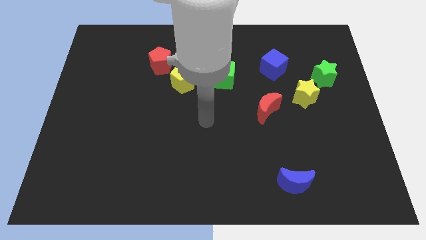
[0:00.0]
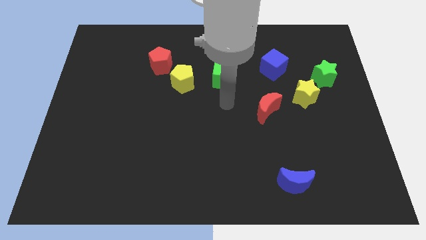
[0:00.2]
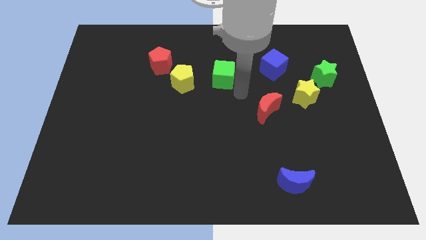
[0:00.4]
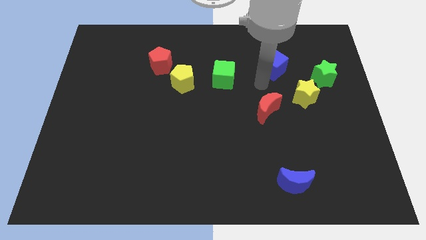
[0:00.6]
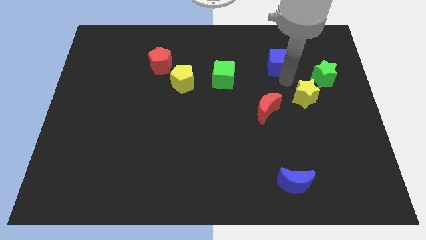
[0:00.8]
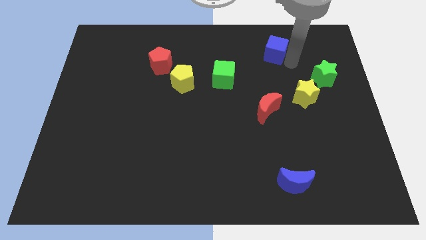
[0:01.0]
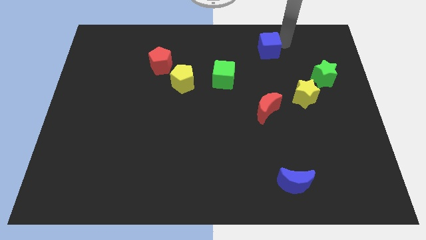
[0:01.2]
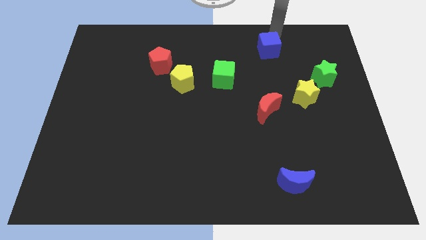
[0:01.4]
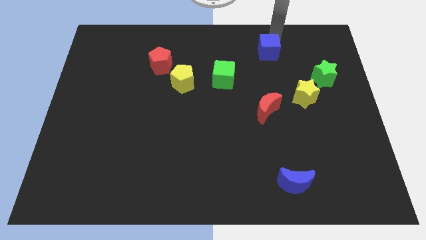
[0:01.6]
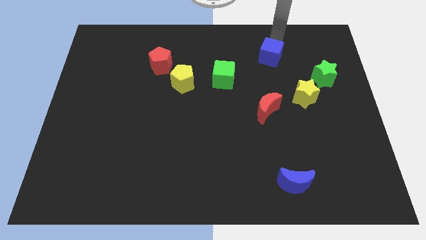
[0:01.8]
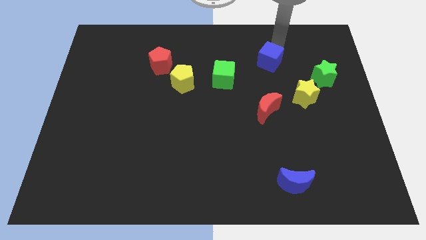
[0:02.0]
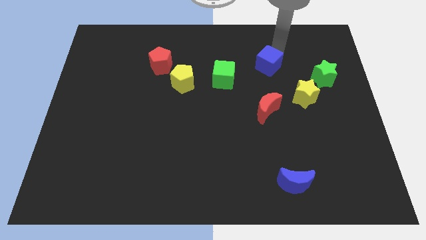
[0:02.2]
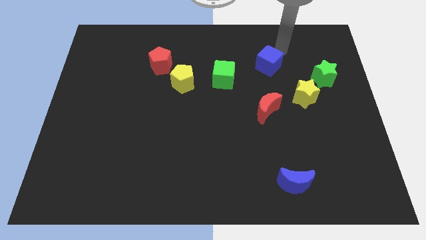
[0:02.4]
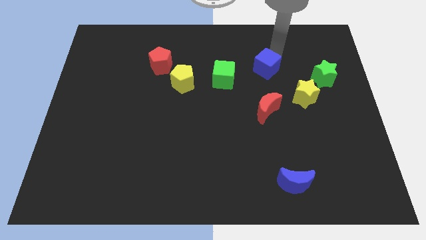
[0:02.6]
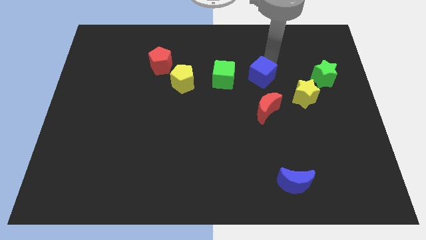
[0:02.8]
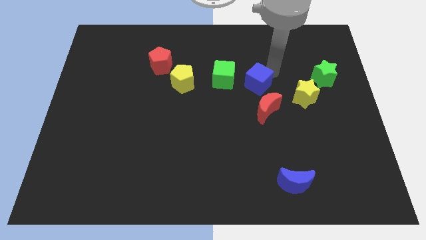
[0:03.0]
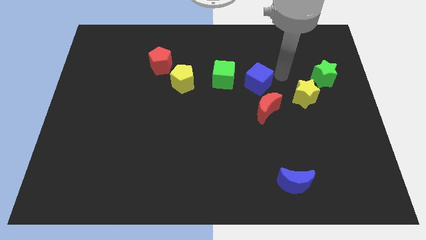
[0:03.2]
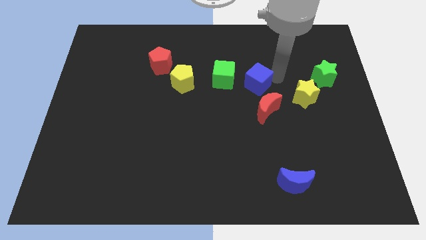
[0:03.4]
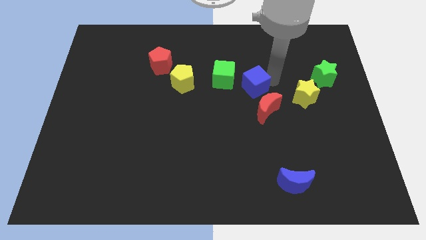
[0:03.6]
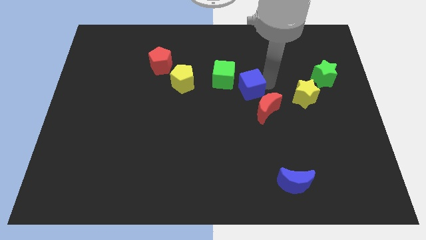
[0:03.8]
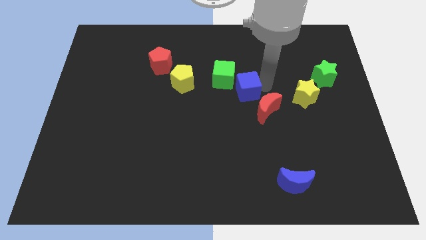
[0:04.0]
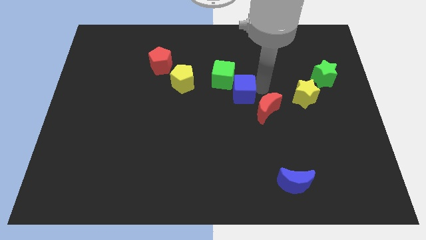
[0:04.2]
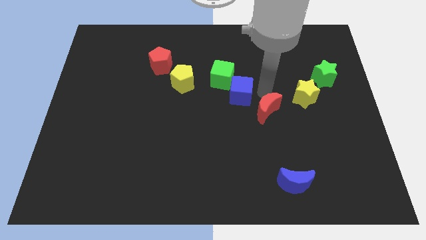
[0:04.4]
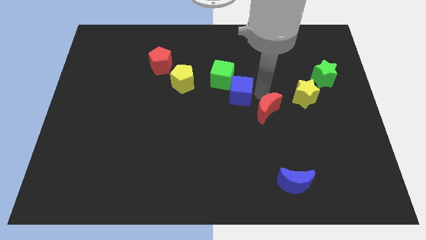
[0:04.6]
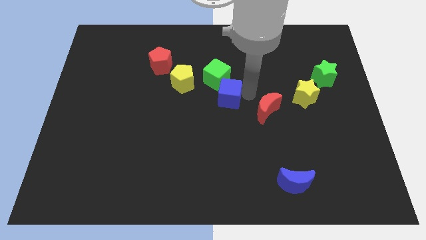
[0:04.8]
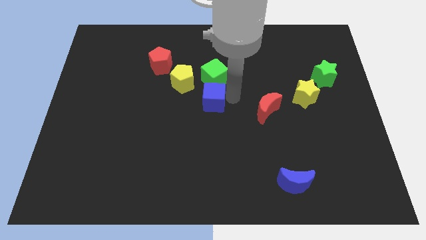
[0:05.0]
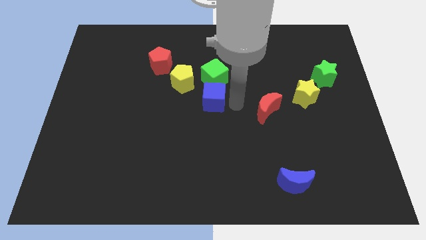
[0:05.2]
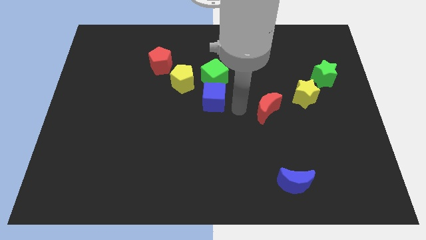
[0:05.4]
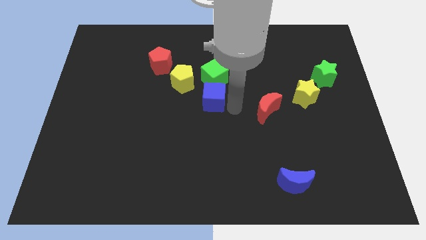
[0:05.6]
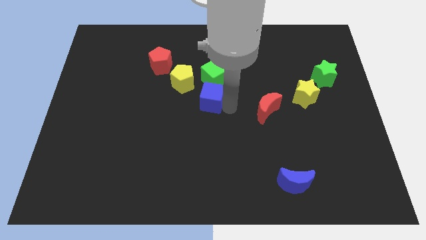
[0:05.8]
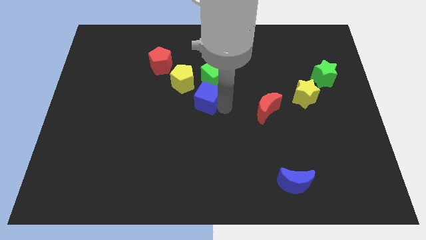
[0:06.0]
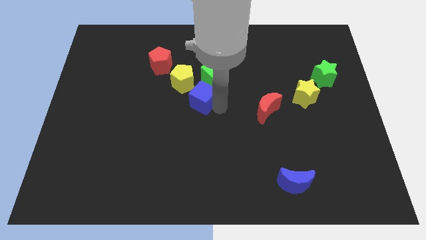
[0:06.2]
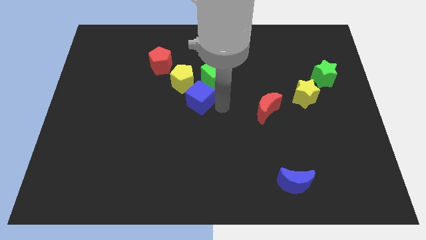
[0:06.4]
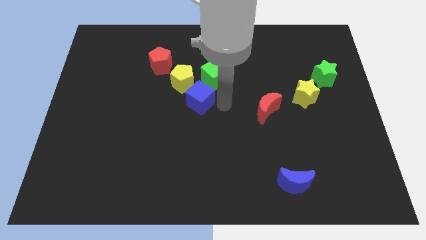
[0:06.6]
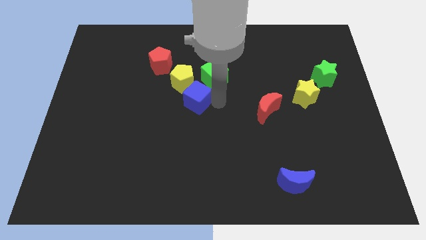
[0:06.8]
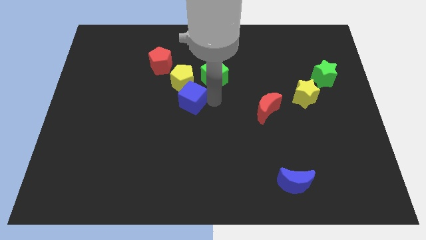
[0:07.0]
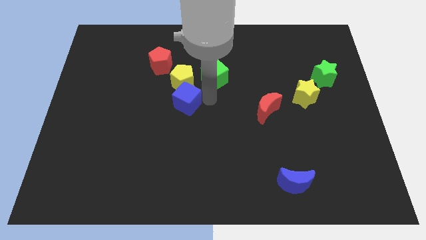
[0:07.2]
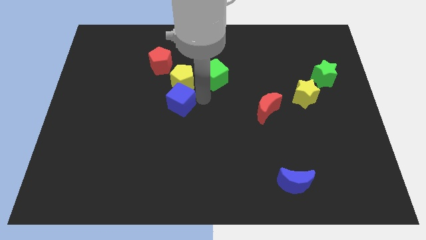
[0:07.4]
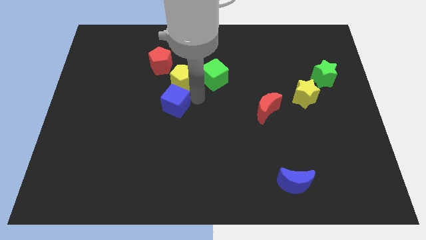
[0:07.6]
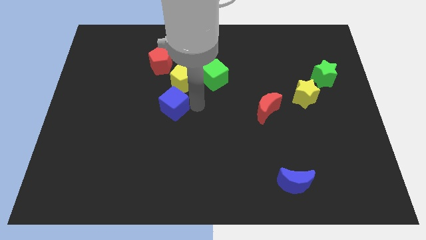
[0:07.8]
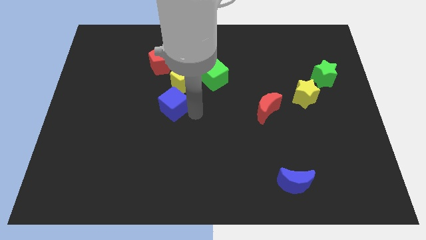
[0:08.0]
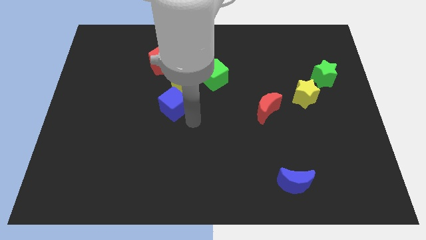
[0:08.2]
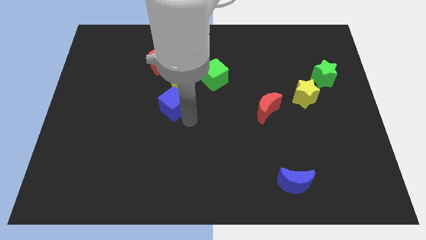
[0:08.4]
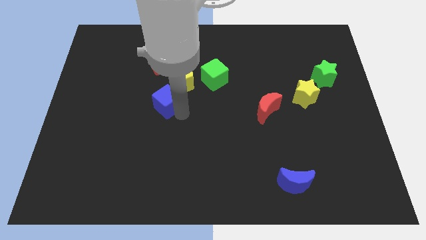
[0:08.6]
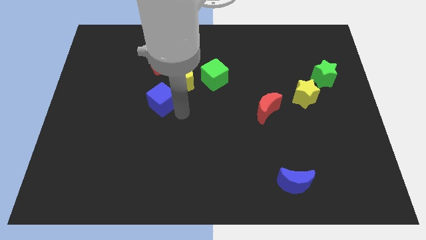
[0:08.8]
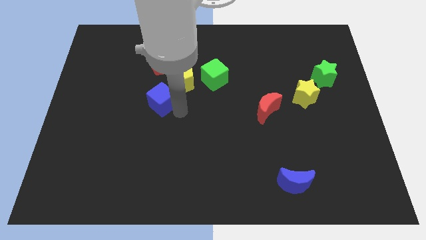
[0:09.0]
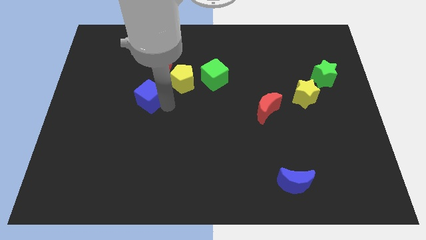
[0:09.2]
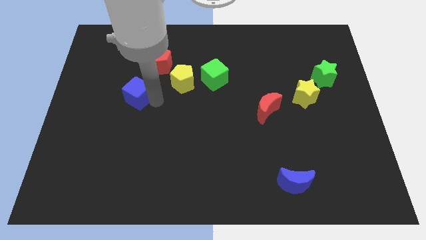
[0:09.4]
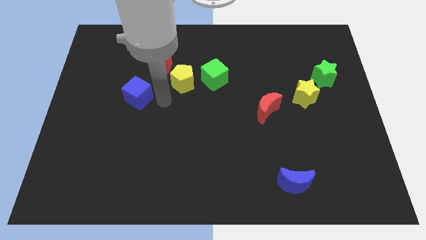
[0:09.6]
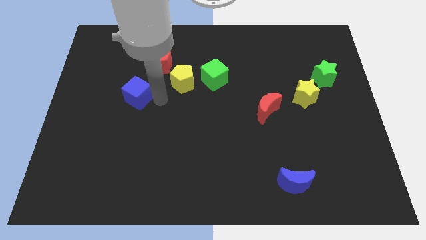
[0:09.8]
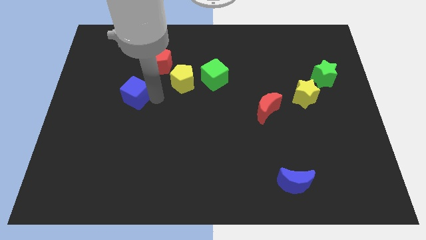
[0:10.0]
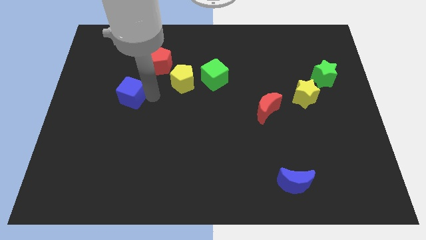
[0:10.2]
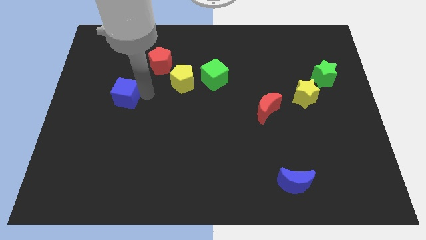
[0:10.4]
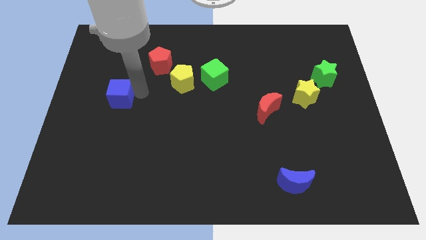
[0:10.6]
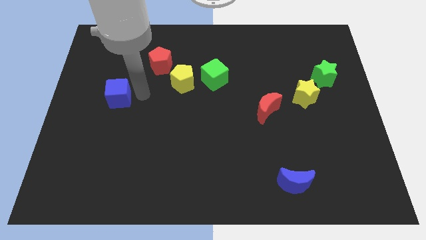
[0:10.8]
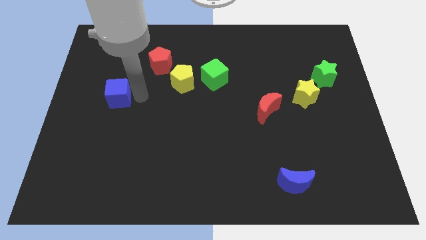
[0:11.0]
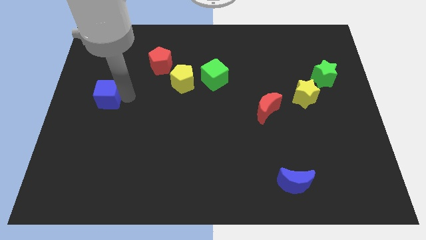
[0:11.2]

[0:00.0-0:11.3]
push the blue cube to the center left
